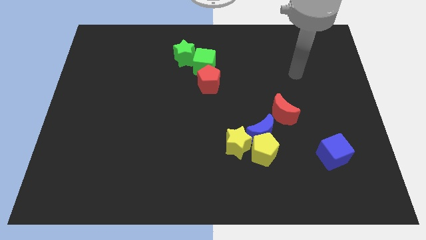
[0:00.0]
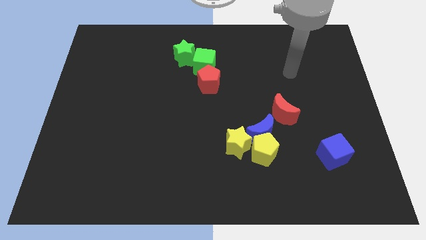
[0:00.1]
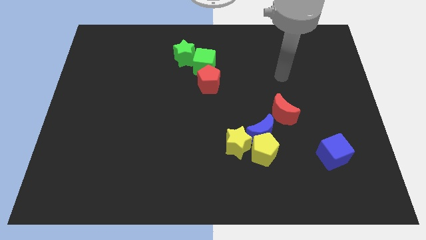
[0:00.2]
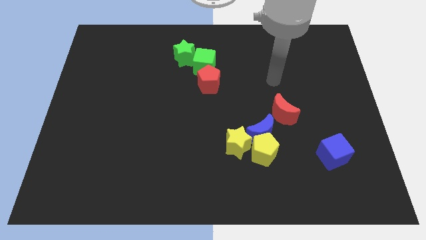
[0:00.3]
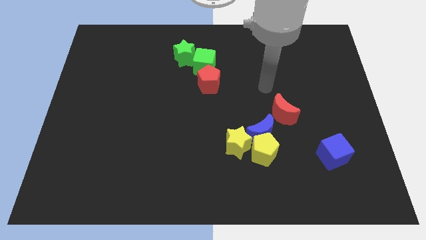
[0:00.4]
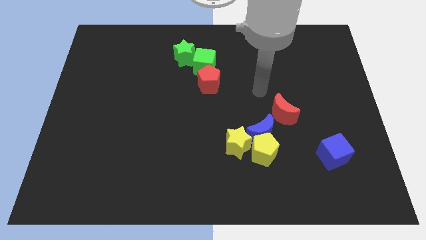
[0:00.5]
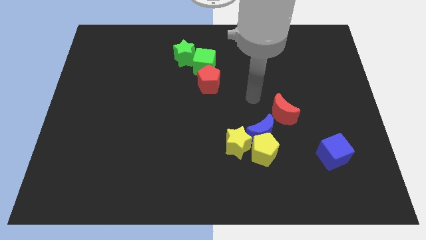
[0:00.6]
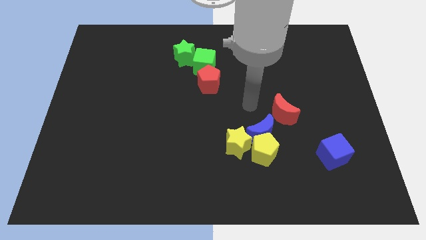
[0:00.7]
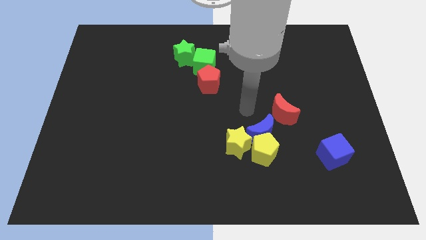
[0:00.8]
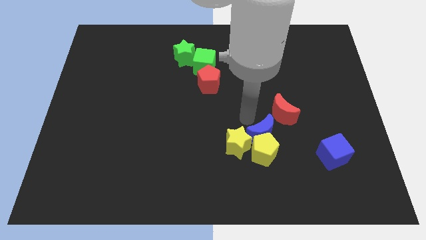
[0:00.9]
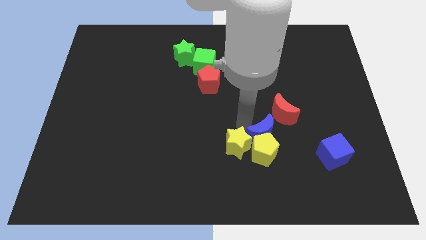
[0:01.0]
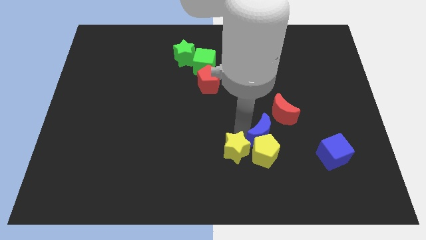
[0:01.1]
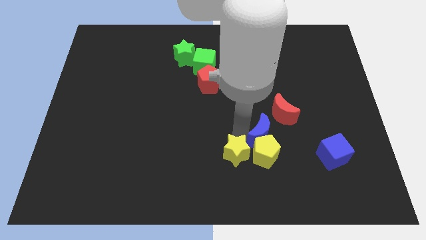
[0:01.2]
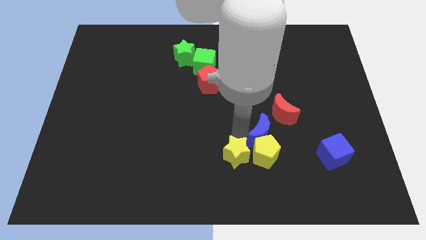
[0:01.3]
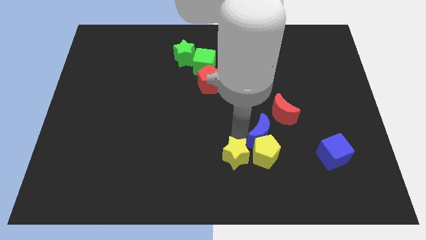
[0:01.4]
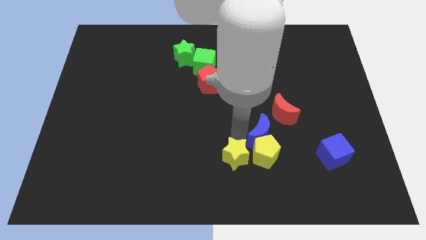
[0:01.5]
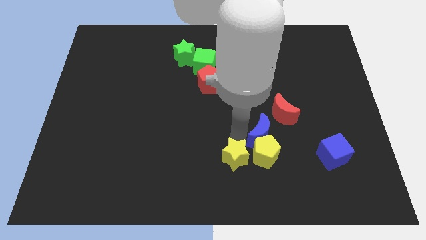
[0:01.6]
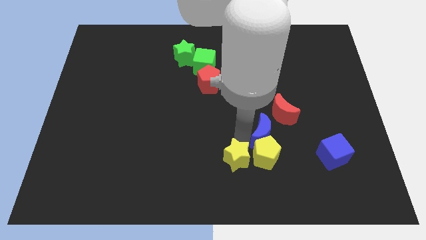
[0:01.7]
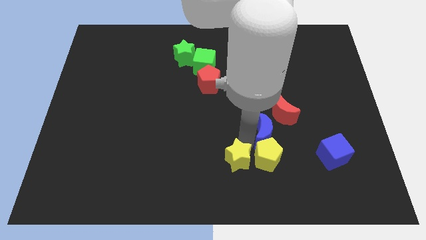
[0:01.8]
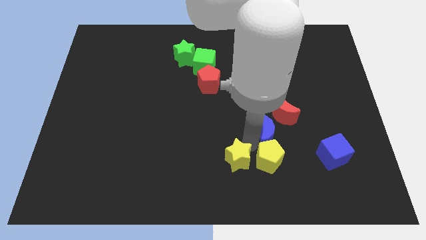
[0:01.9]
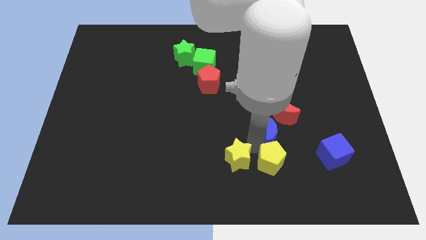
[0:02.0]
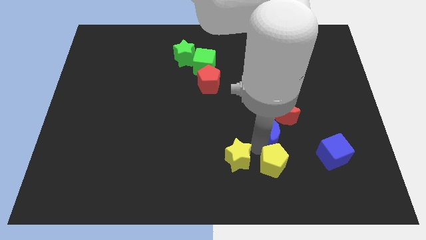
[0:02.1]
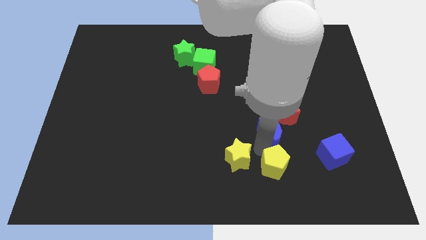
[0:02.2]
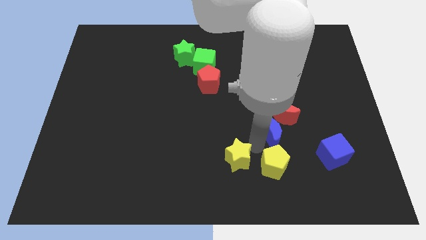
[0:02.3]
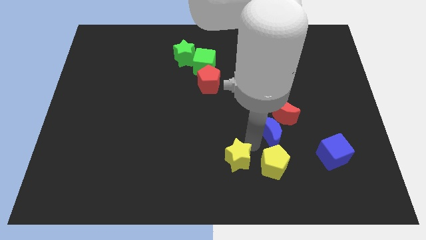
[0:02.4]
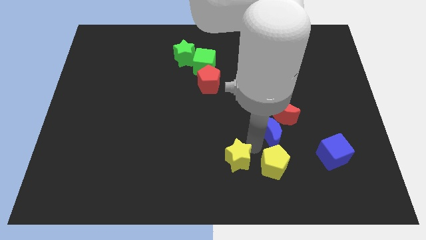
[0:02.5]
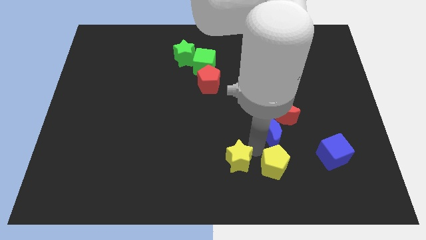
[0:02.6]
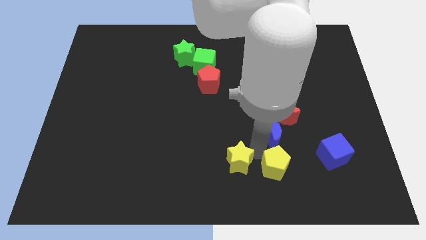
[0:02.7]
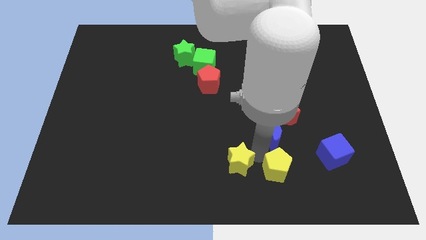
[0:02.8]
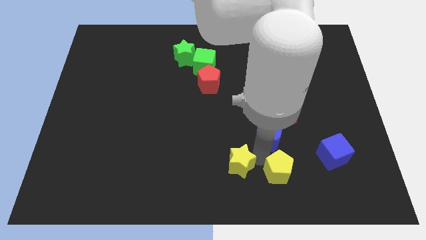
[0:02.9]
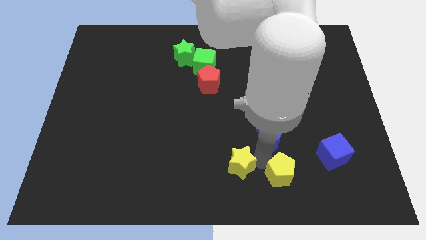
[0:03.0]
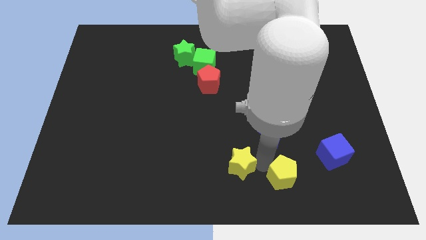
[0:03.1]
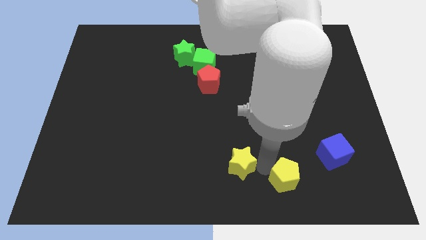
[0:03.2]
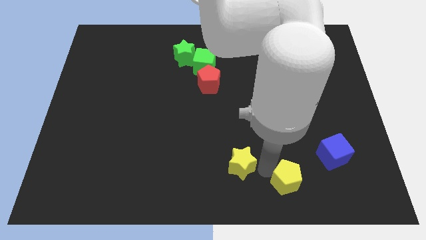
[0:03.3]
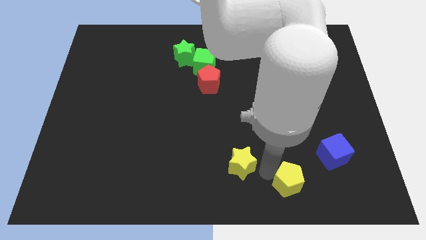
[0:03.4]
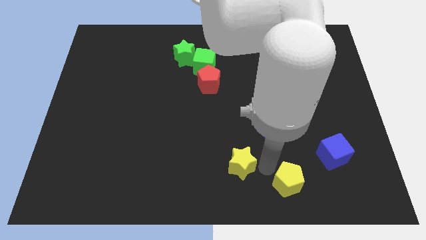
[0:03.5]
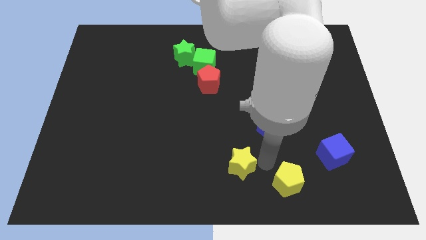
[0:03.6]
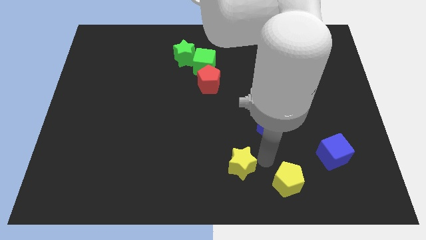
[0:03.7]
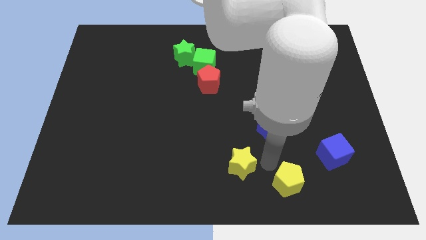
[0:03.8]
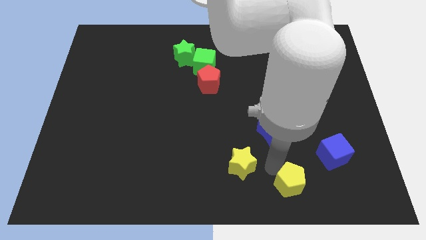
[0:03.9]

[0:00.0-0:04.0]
move the yellow pentagon away from the blue moon and yellow star

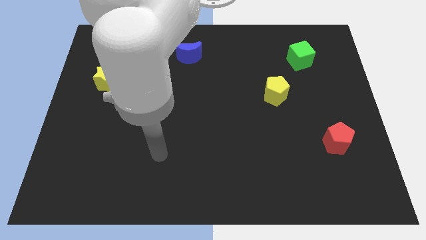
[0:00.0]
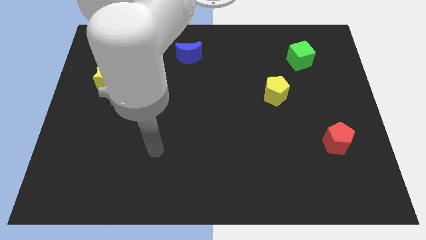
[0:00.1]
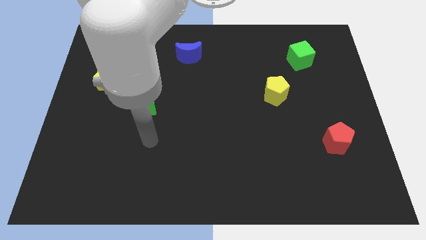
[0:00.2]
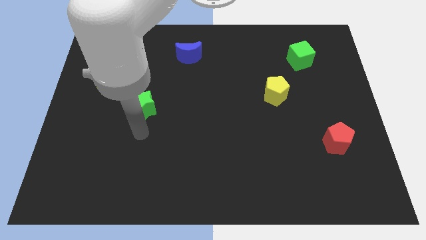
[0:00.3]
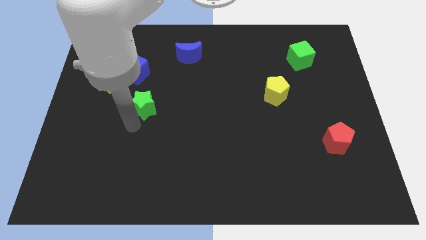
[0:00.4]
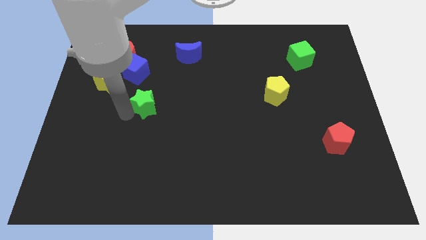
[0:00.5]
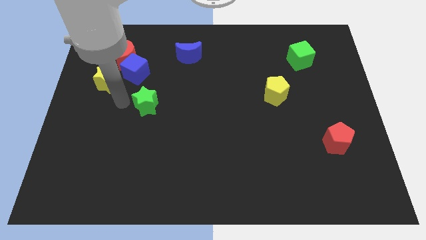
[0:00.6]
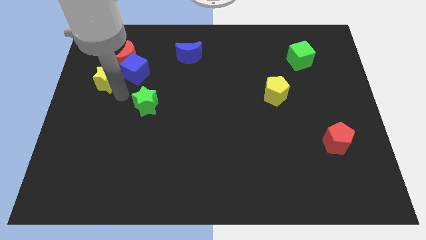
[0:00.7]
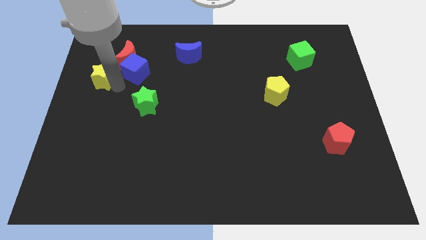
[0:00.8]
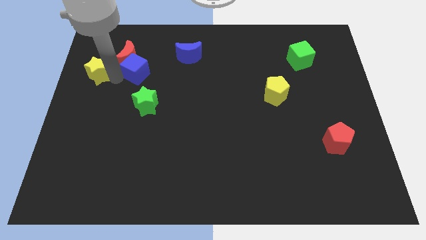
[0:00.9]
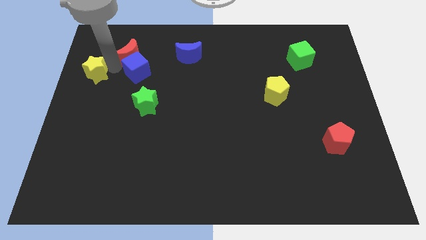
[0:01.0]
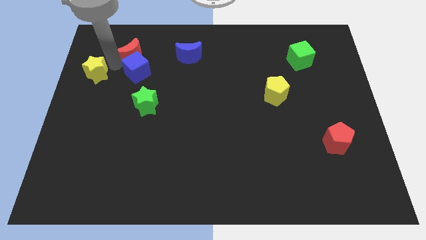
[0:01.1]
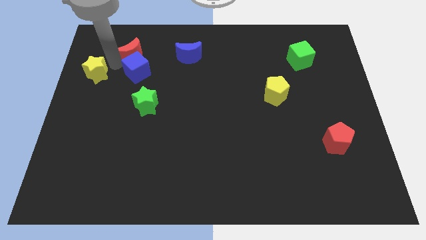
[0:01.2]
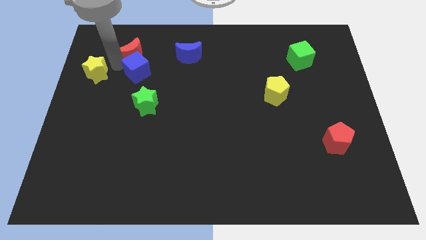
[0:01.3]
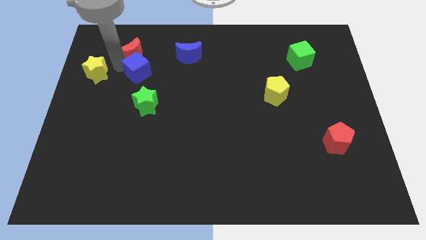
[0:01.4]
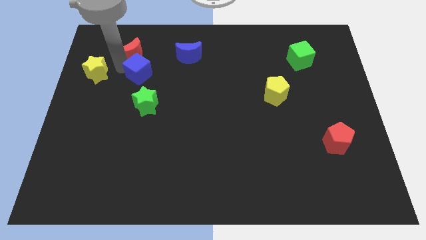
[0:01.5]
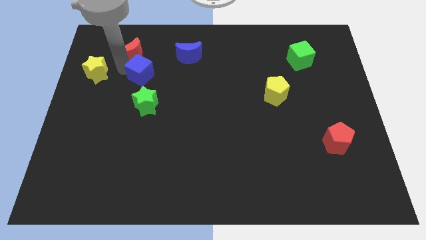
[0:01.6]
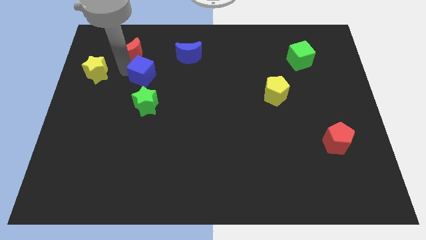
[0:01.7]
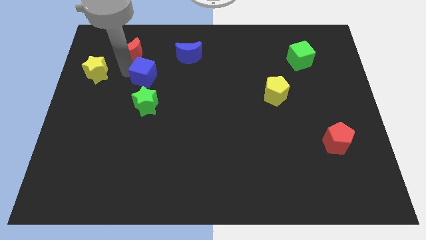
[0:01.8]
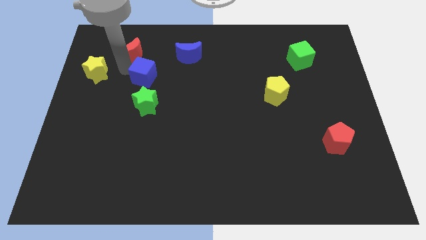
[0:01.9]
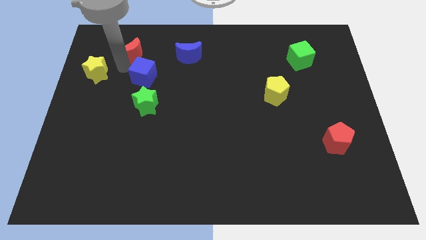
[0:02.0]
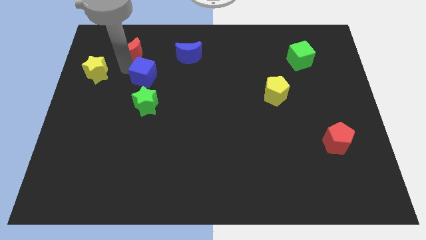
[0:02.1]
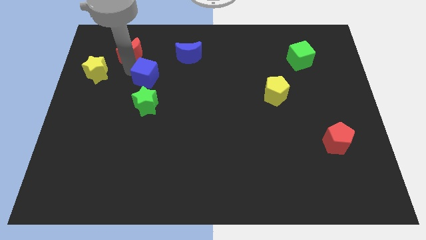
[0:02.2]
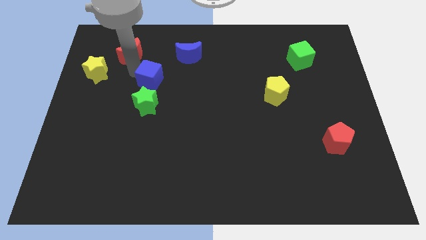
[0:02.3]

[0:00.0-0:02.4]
separate the blue cube from the red moon and yellow star

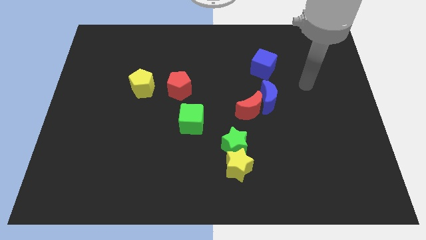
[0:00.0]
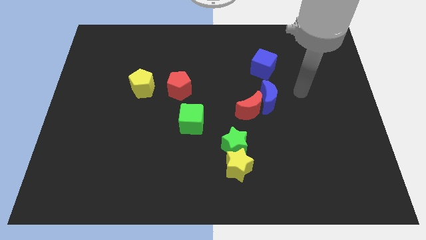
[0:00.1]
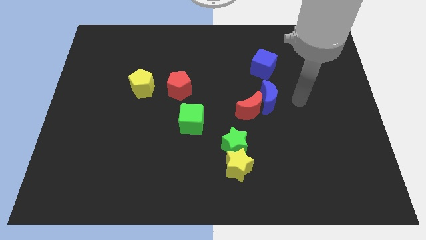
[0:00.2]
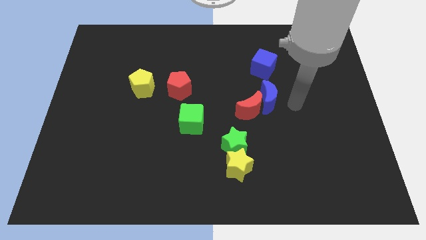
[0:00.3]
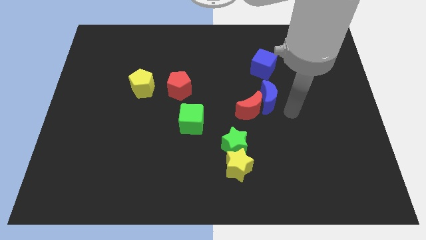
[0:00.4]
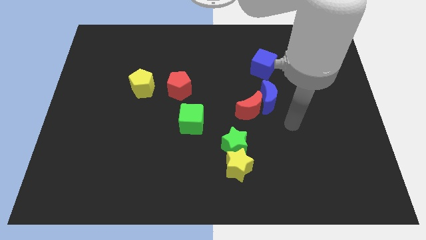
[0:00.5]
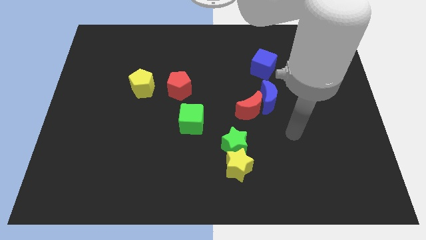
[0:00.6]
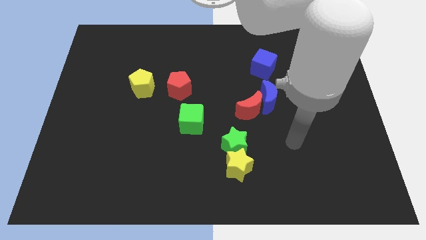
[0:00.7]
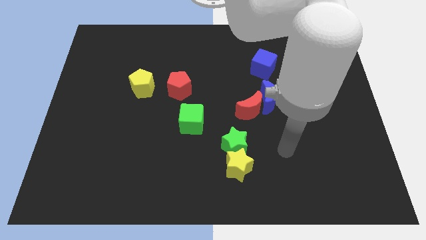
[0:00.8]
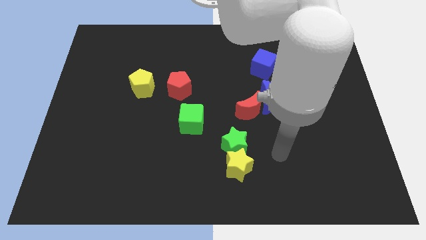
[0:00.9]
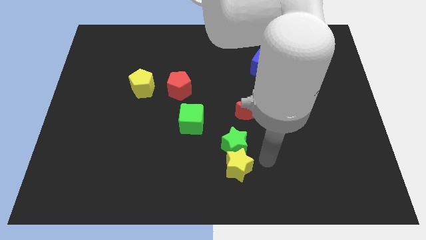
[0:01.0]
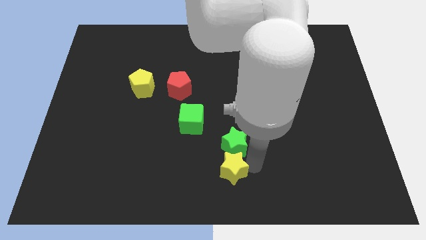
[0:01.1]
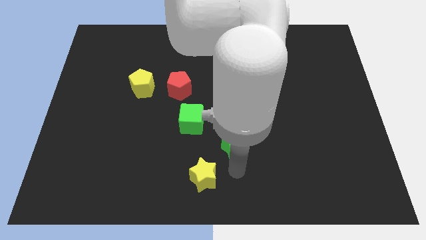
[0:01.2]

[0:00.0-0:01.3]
pull the green star apart from the yellow star

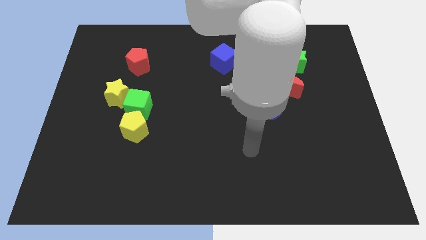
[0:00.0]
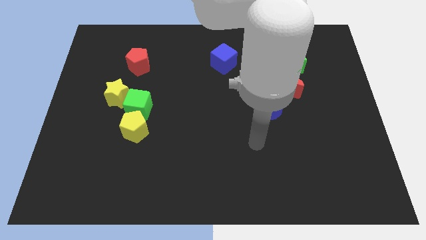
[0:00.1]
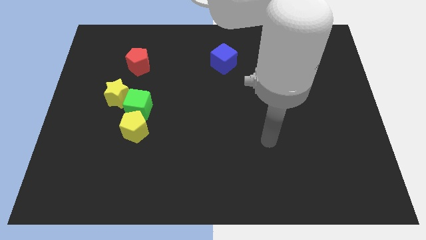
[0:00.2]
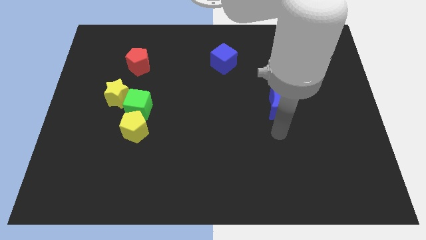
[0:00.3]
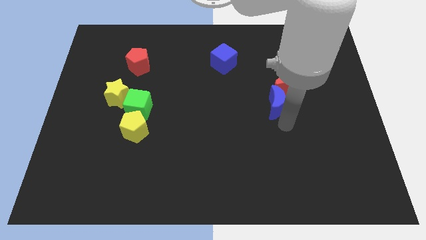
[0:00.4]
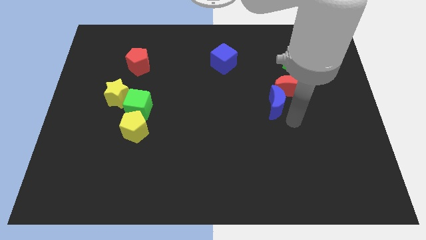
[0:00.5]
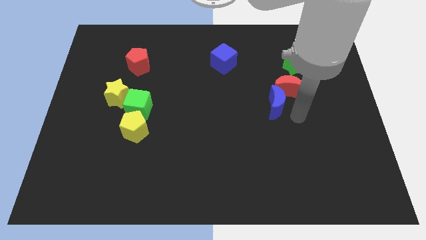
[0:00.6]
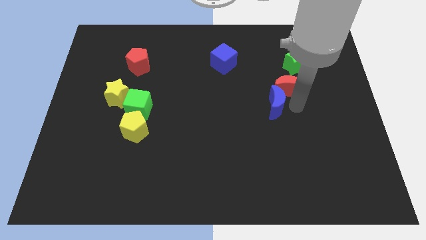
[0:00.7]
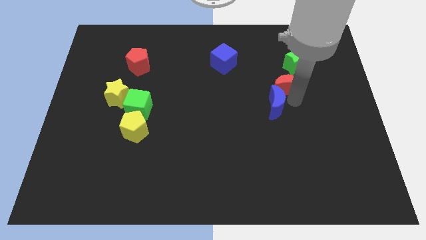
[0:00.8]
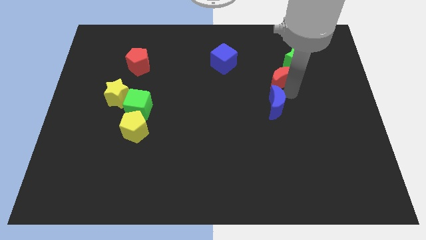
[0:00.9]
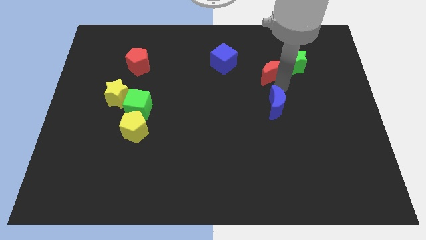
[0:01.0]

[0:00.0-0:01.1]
move the blue moon away from the red moon

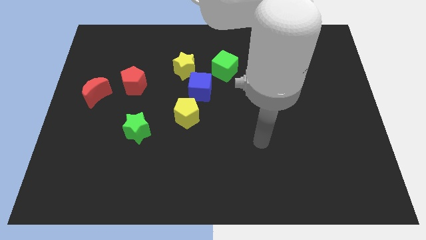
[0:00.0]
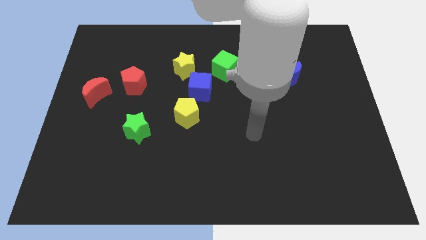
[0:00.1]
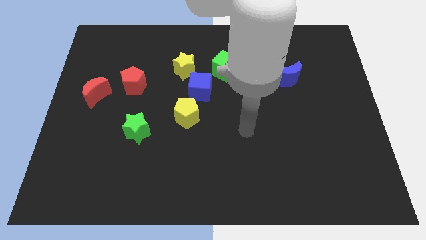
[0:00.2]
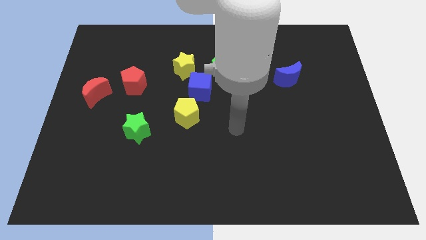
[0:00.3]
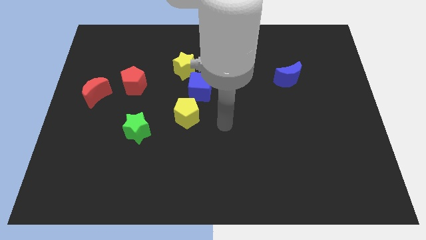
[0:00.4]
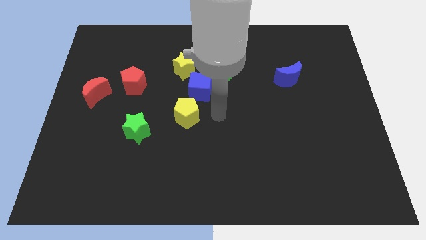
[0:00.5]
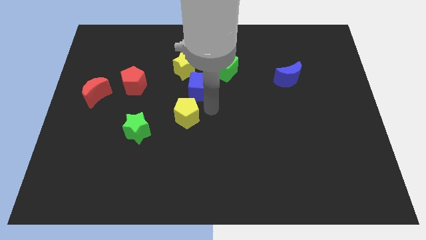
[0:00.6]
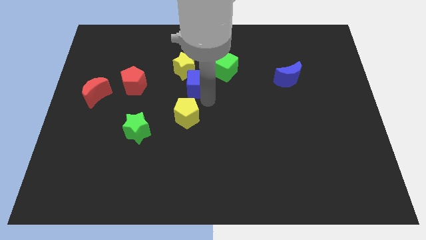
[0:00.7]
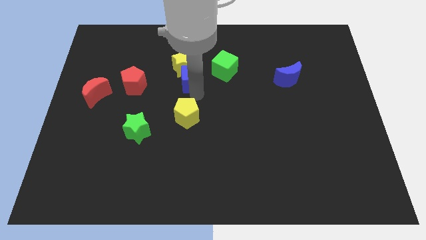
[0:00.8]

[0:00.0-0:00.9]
move the yellow pentagon away from the blue cube
